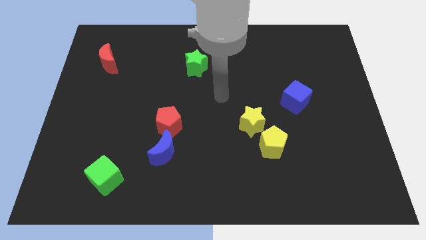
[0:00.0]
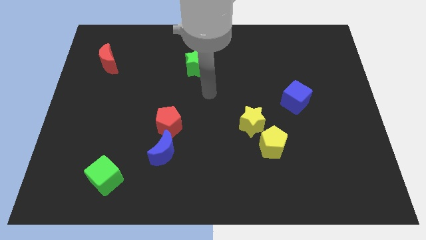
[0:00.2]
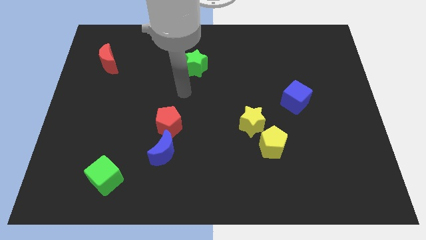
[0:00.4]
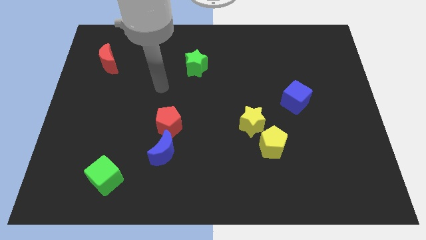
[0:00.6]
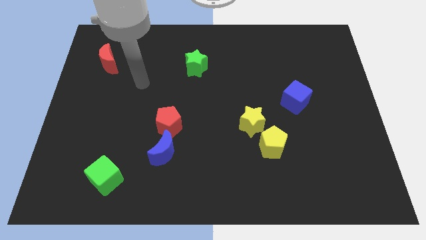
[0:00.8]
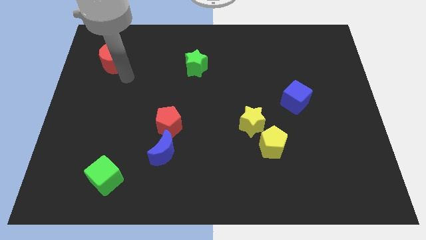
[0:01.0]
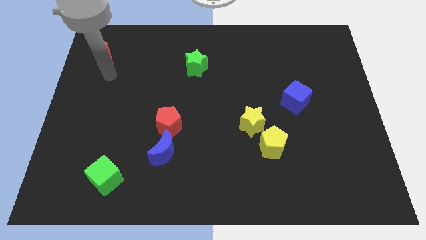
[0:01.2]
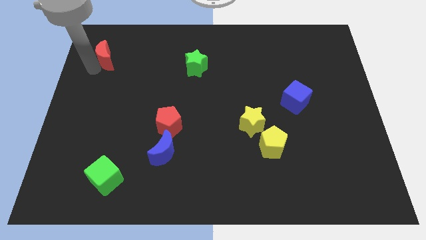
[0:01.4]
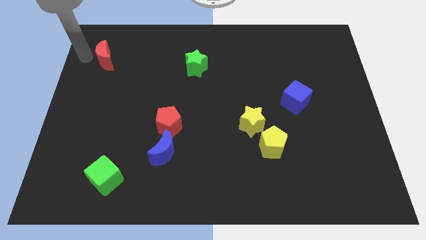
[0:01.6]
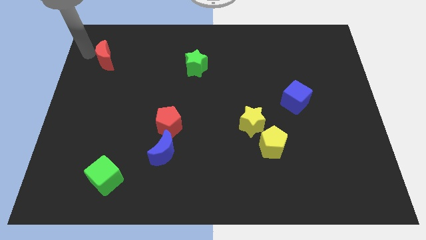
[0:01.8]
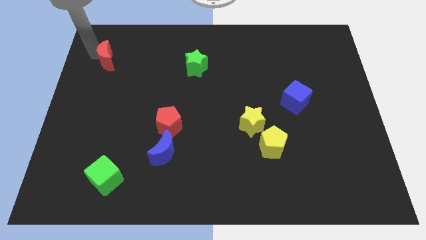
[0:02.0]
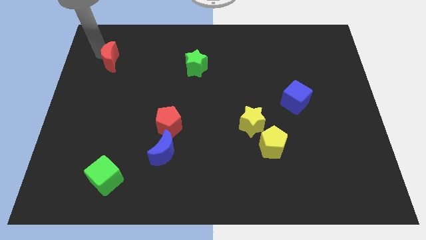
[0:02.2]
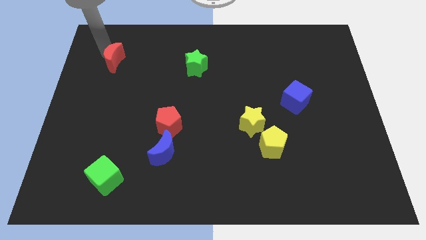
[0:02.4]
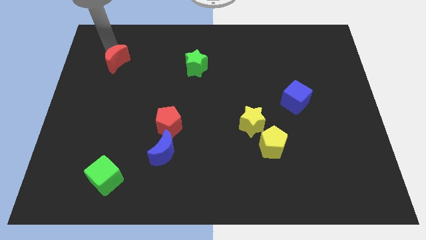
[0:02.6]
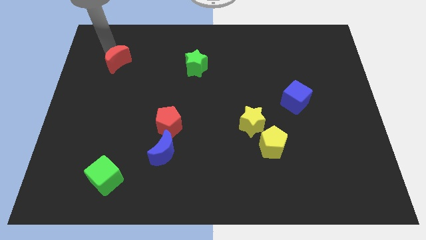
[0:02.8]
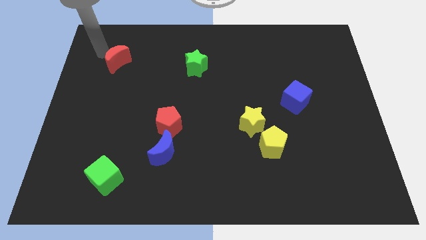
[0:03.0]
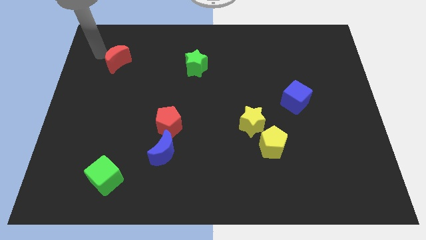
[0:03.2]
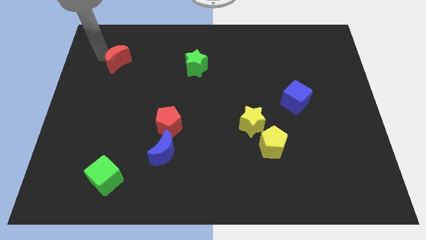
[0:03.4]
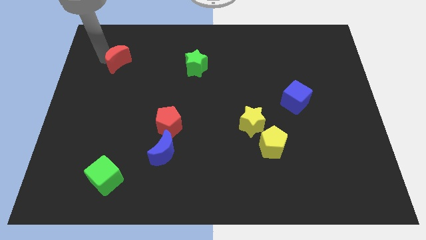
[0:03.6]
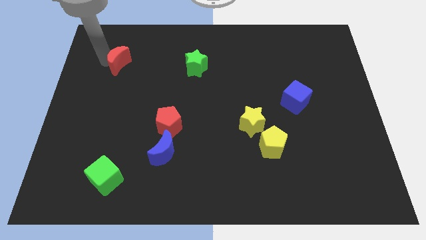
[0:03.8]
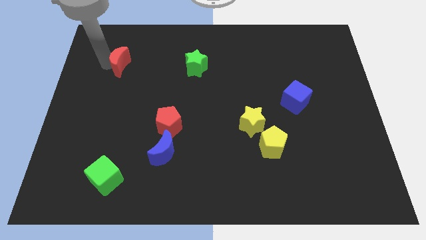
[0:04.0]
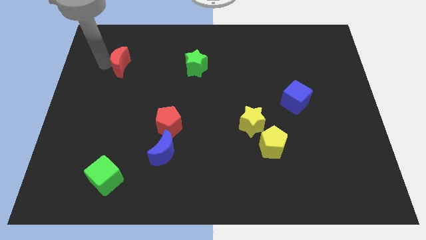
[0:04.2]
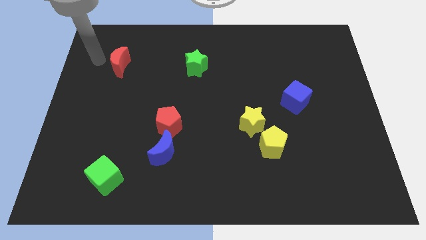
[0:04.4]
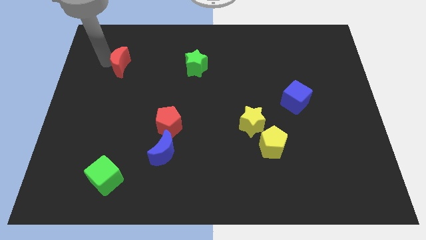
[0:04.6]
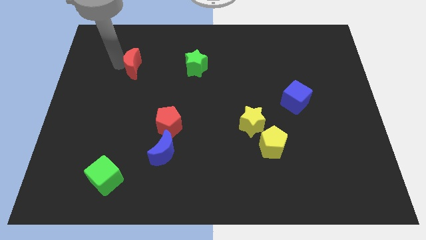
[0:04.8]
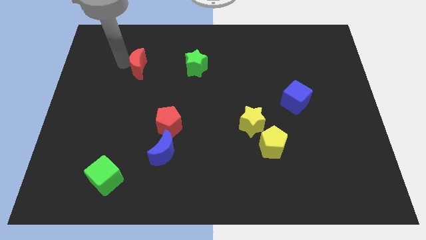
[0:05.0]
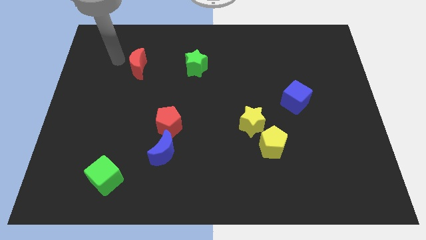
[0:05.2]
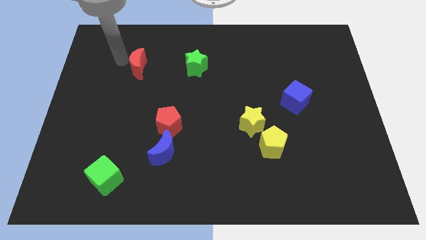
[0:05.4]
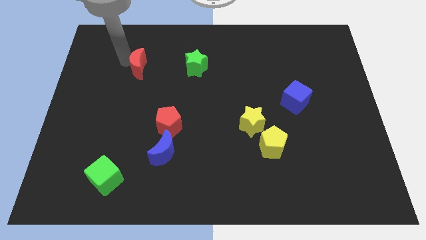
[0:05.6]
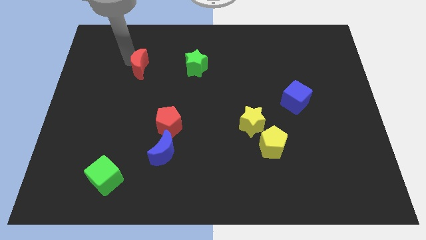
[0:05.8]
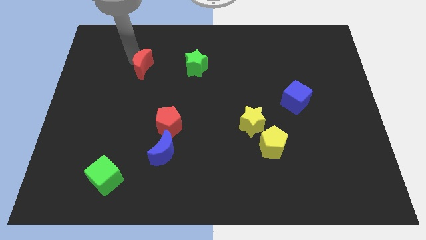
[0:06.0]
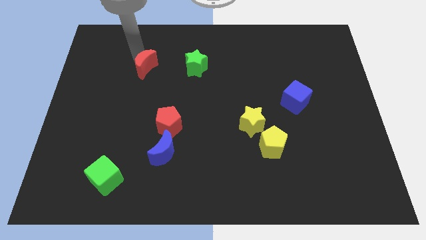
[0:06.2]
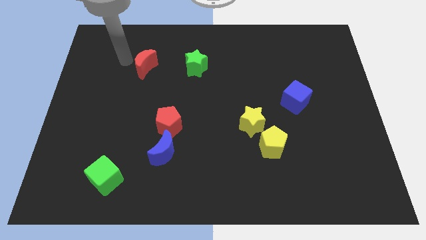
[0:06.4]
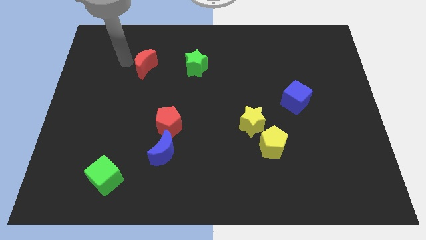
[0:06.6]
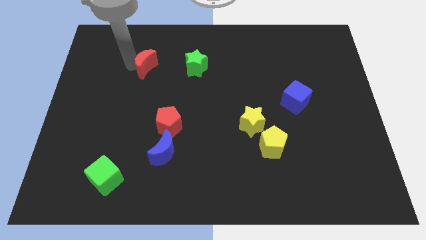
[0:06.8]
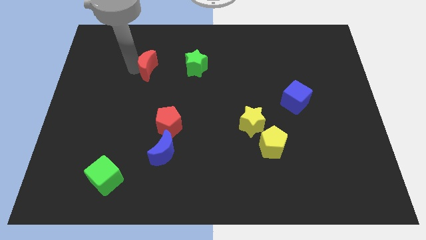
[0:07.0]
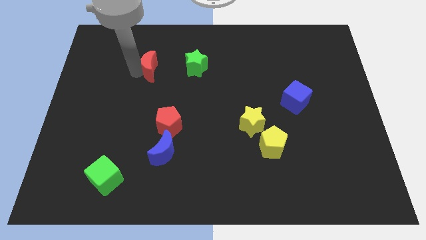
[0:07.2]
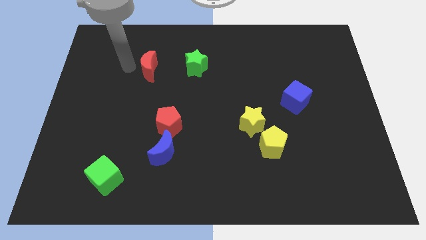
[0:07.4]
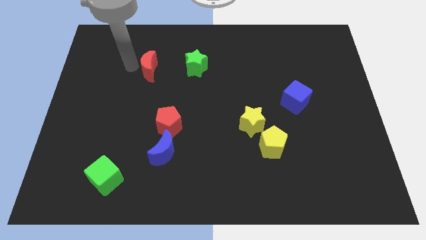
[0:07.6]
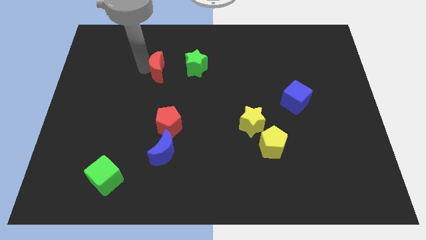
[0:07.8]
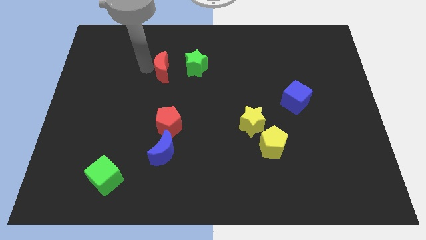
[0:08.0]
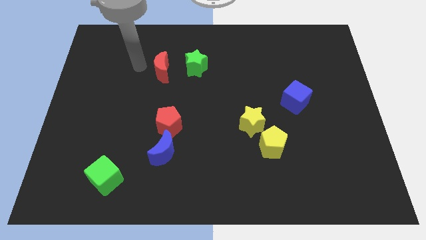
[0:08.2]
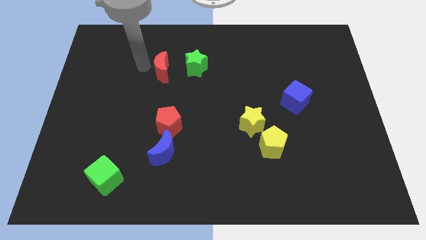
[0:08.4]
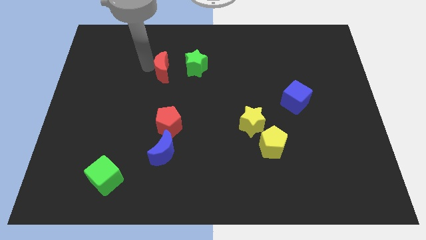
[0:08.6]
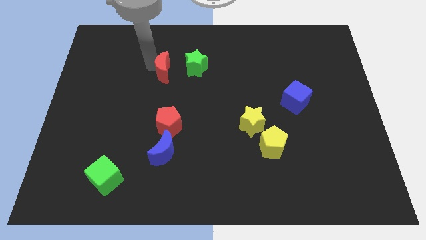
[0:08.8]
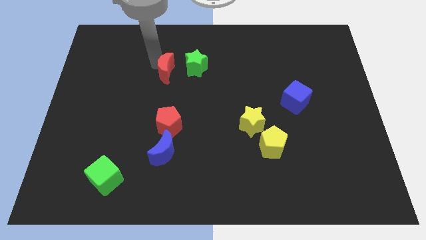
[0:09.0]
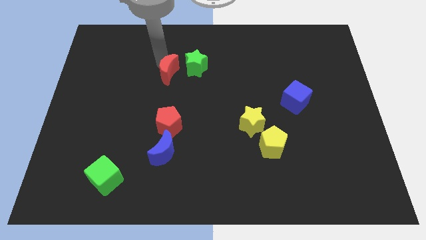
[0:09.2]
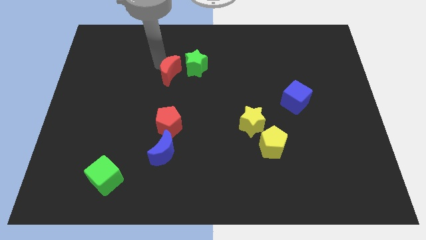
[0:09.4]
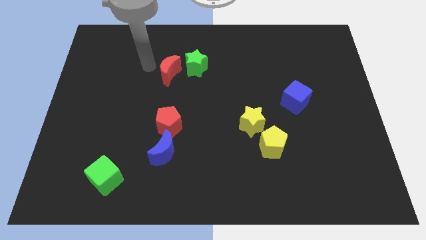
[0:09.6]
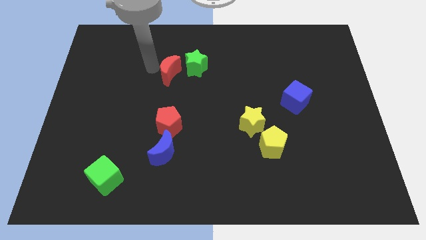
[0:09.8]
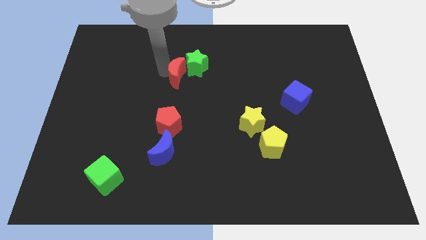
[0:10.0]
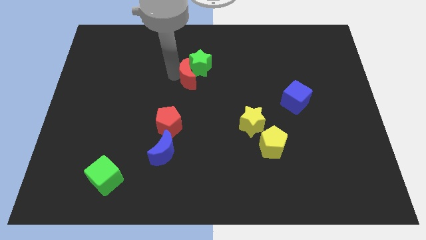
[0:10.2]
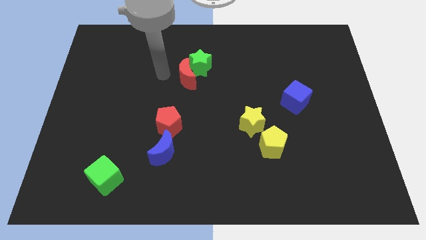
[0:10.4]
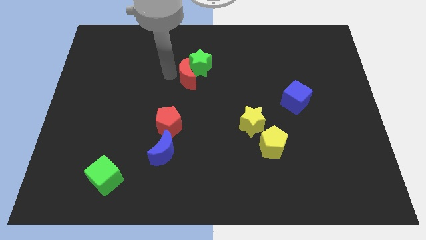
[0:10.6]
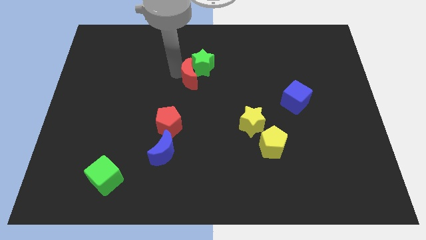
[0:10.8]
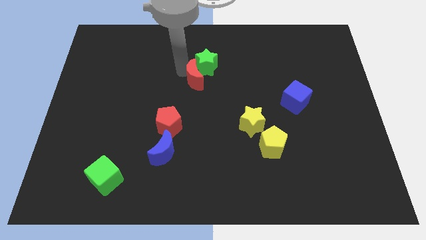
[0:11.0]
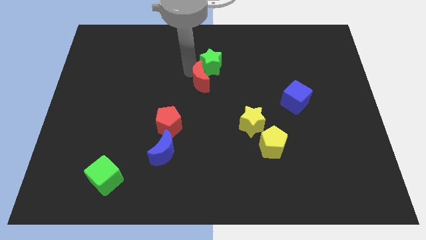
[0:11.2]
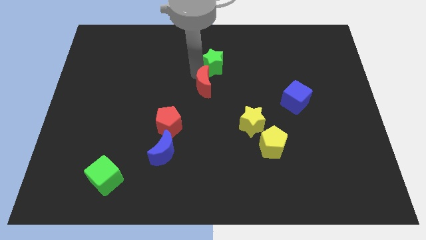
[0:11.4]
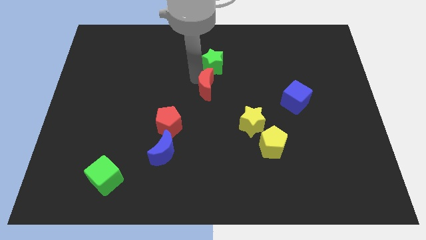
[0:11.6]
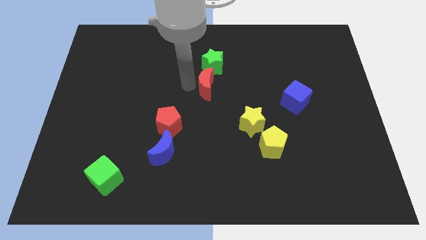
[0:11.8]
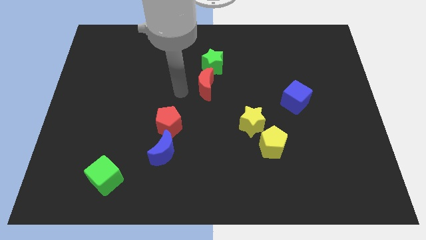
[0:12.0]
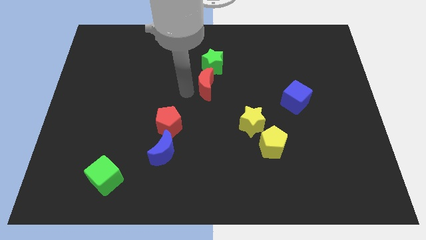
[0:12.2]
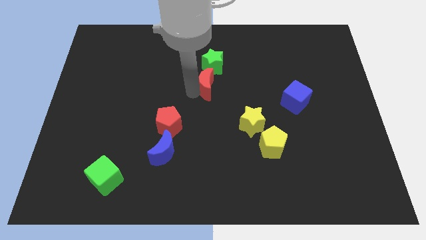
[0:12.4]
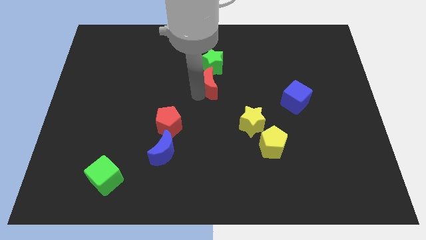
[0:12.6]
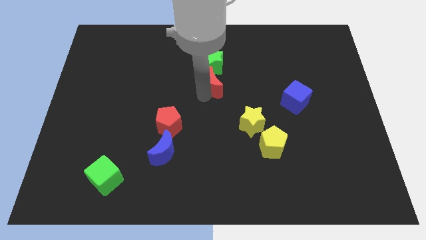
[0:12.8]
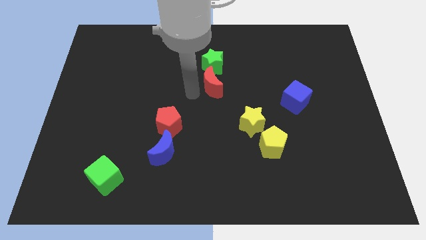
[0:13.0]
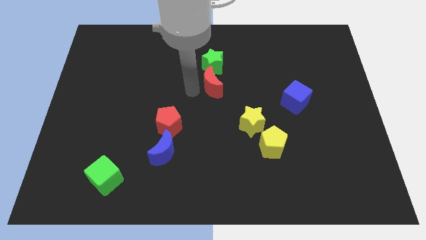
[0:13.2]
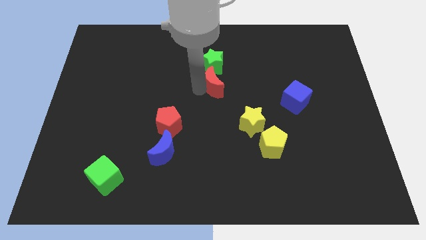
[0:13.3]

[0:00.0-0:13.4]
put the red moon to the bottom right side of the green star
